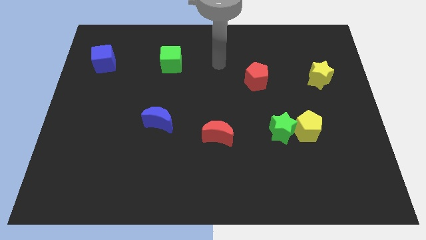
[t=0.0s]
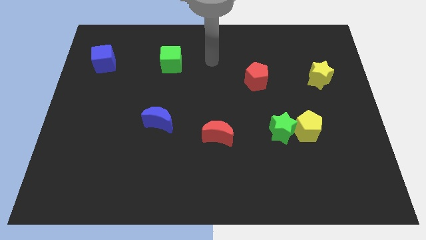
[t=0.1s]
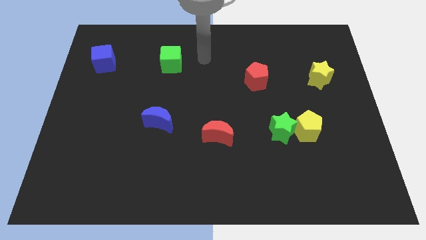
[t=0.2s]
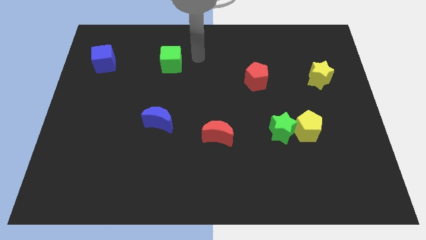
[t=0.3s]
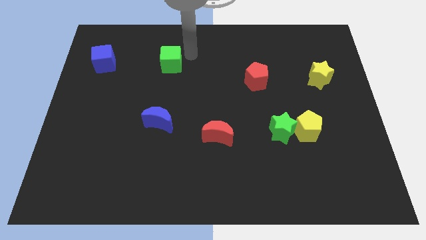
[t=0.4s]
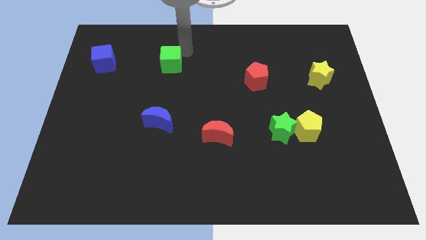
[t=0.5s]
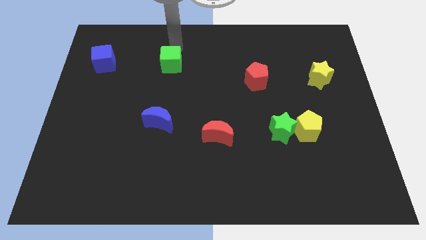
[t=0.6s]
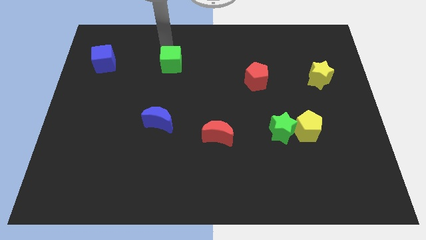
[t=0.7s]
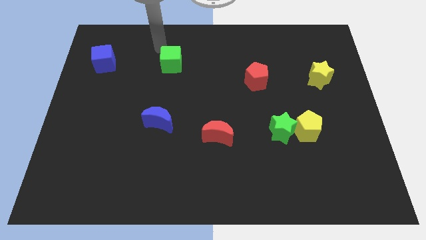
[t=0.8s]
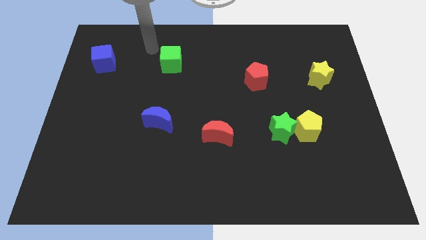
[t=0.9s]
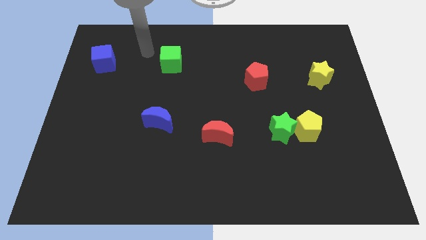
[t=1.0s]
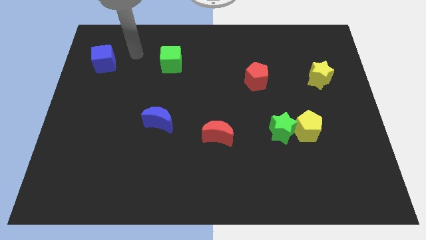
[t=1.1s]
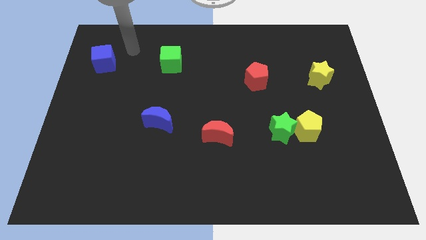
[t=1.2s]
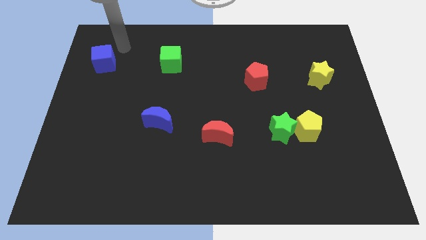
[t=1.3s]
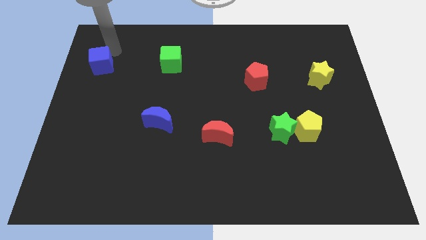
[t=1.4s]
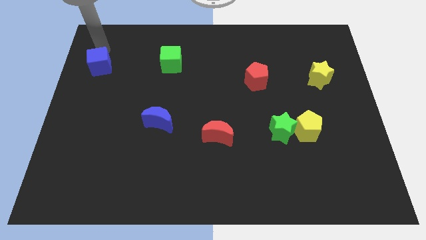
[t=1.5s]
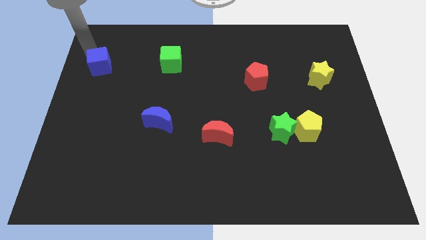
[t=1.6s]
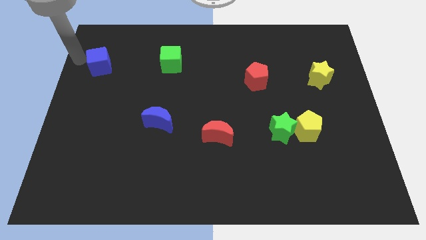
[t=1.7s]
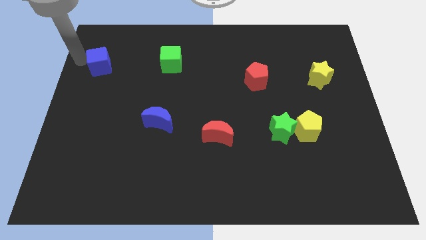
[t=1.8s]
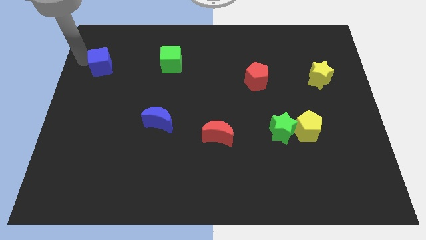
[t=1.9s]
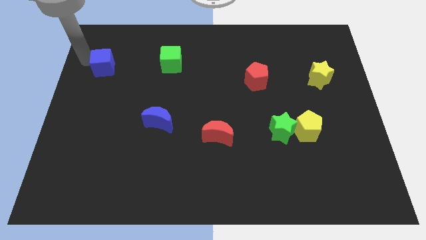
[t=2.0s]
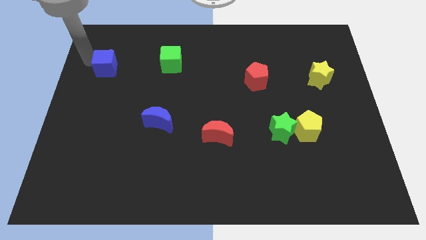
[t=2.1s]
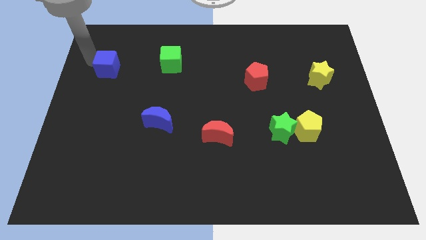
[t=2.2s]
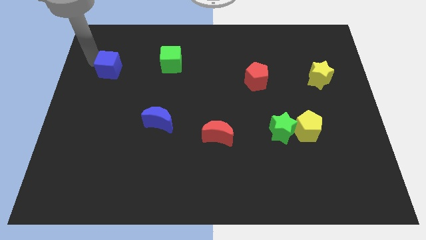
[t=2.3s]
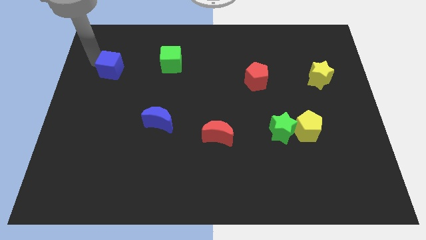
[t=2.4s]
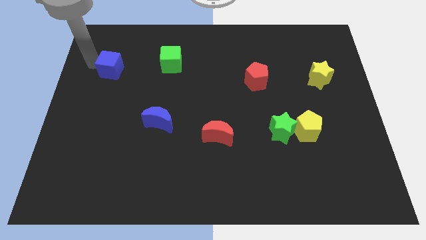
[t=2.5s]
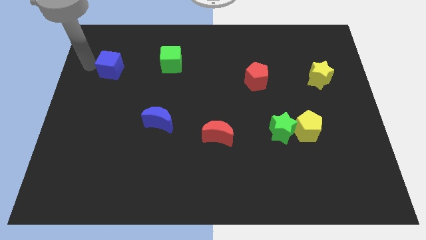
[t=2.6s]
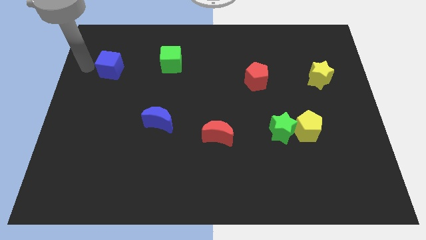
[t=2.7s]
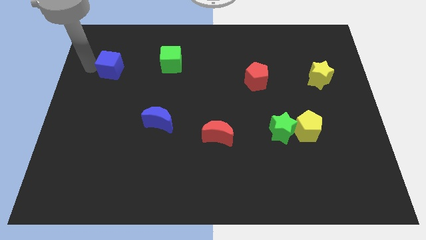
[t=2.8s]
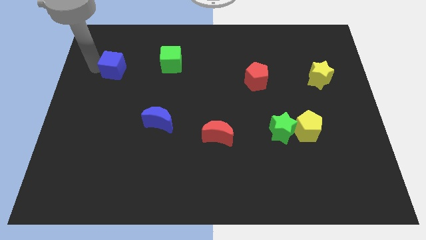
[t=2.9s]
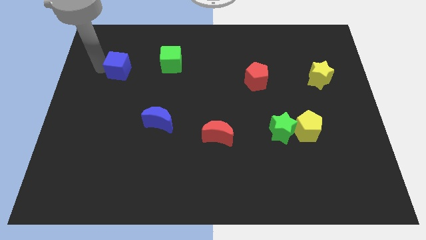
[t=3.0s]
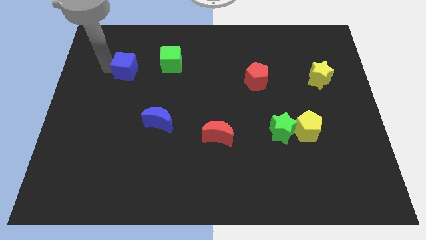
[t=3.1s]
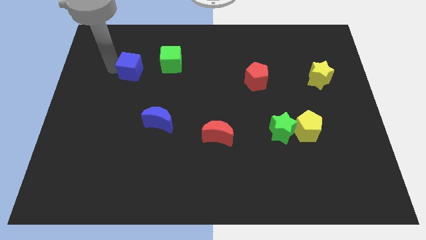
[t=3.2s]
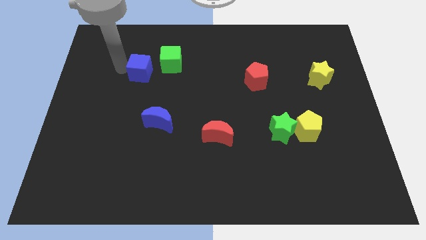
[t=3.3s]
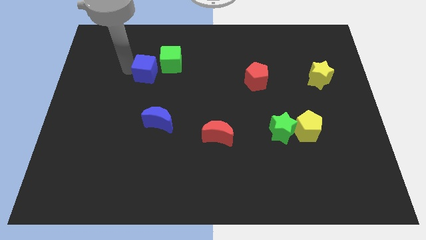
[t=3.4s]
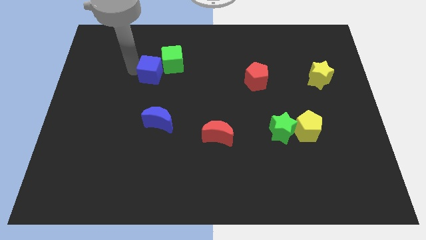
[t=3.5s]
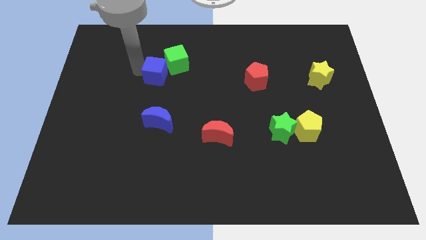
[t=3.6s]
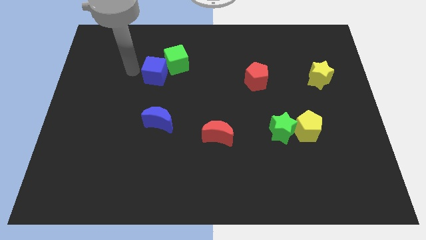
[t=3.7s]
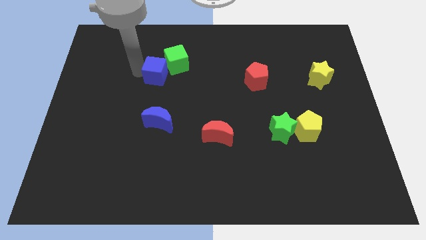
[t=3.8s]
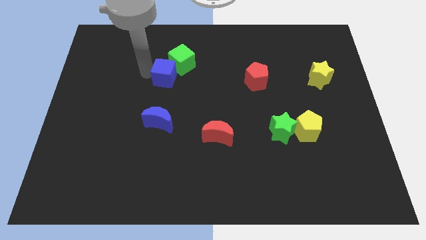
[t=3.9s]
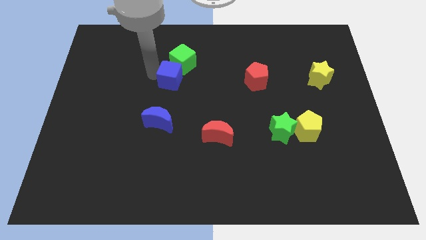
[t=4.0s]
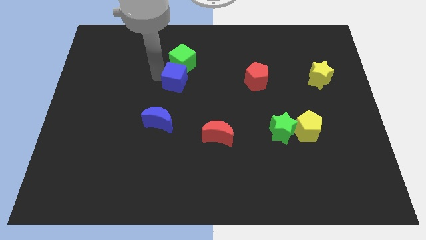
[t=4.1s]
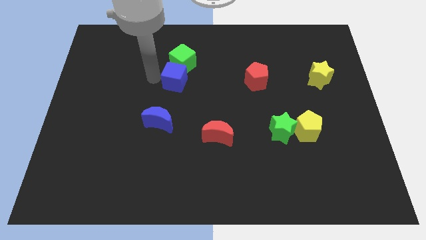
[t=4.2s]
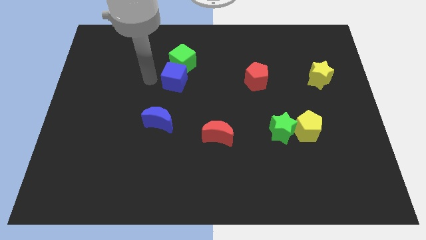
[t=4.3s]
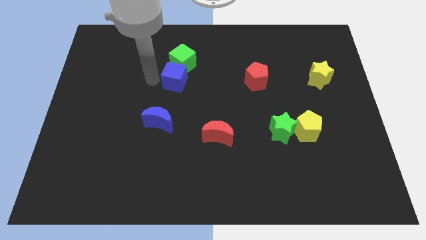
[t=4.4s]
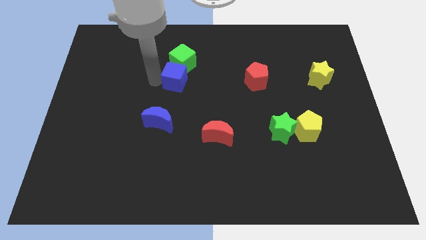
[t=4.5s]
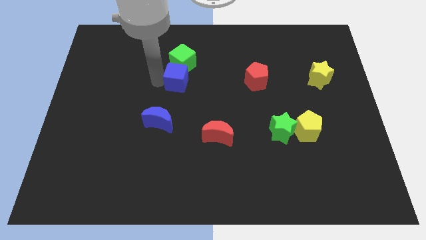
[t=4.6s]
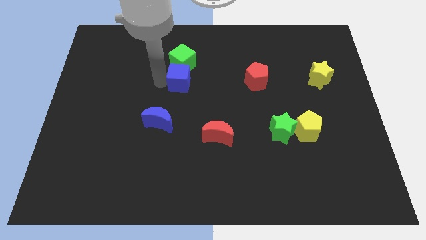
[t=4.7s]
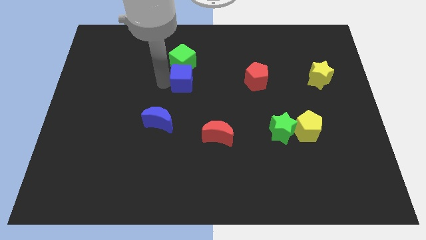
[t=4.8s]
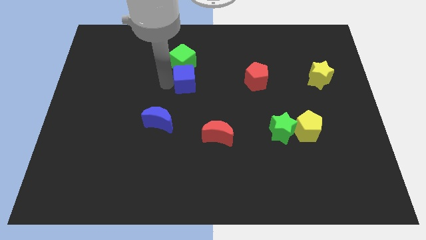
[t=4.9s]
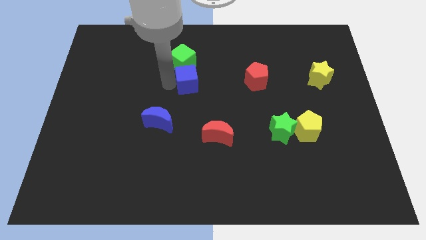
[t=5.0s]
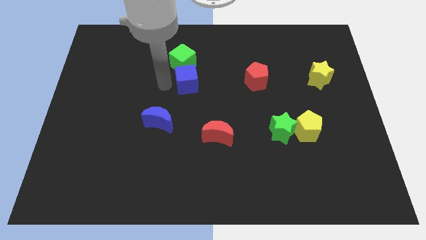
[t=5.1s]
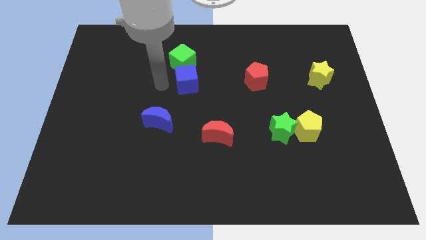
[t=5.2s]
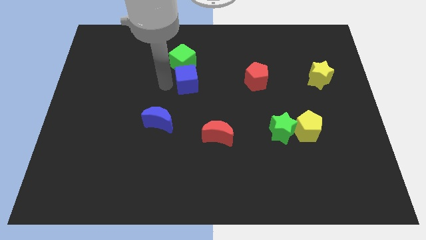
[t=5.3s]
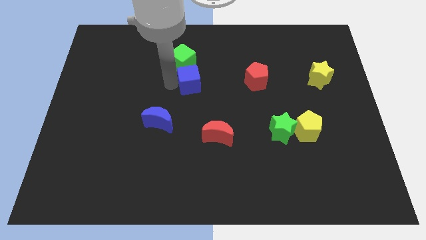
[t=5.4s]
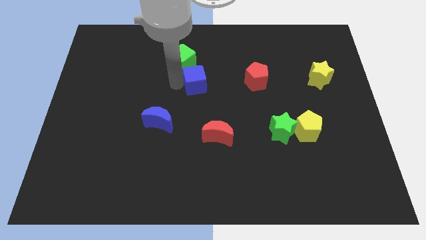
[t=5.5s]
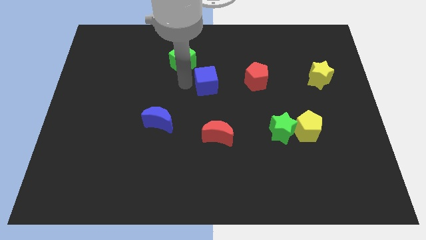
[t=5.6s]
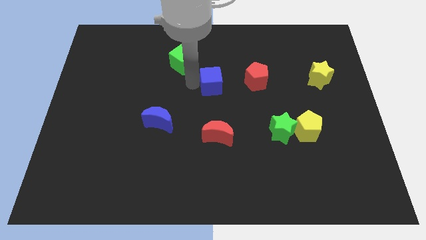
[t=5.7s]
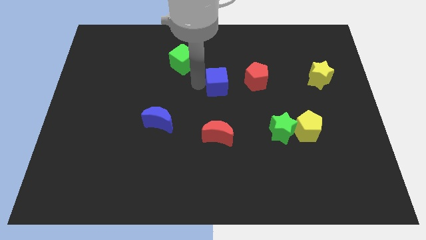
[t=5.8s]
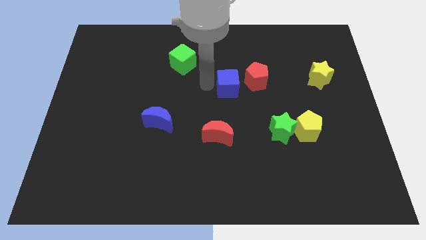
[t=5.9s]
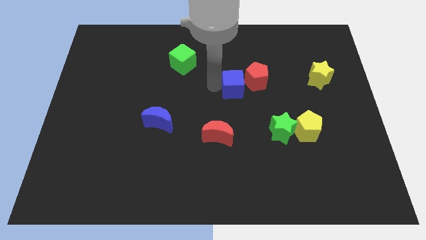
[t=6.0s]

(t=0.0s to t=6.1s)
move the blue cube next to the red pentagon

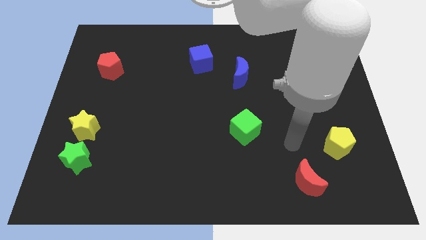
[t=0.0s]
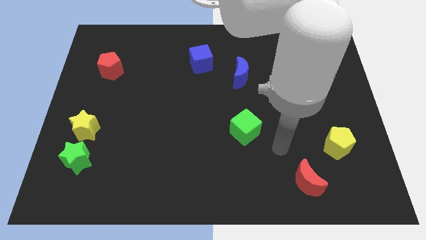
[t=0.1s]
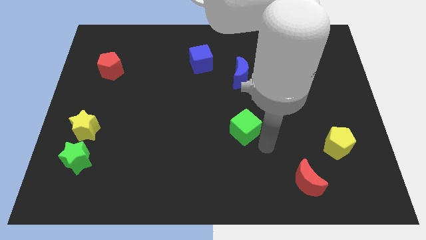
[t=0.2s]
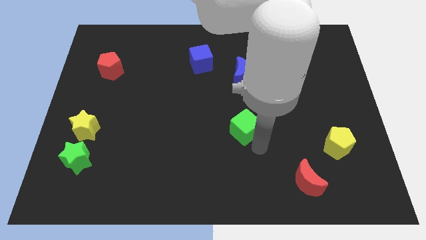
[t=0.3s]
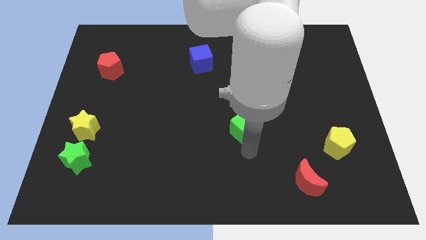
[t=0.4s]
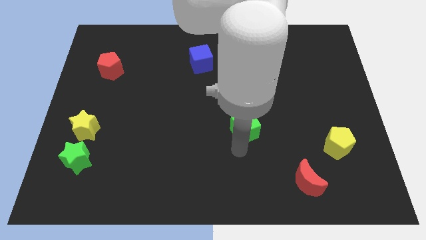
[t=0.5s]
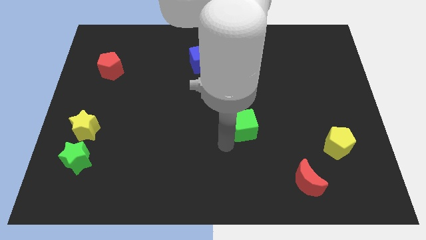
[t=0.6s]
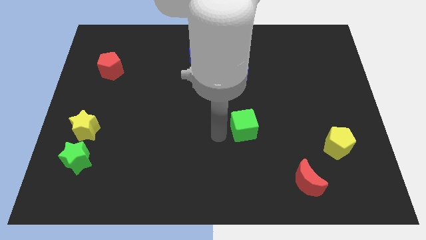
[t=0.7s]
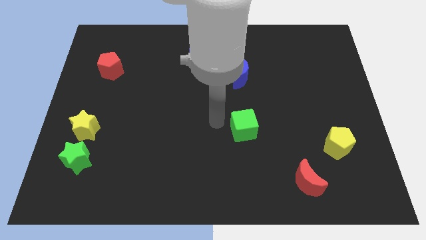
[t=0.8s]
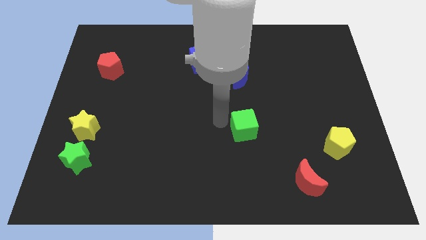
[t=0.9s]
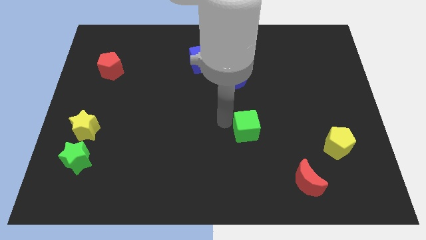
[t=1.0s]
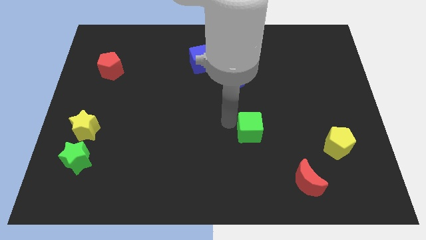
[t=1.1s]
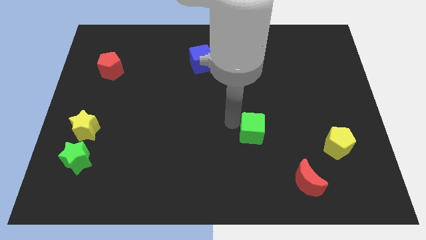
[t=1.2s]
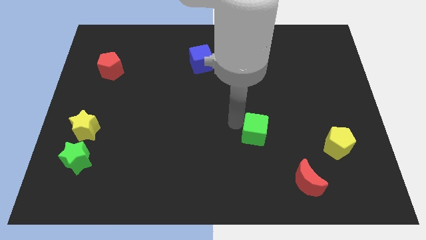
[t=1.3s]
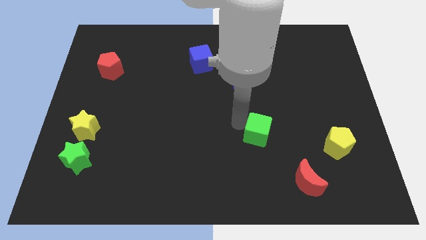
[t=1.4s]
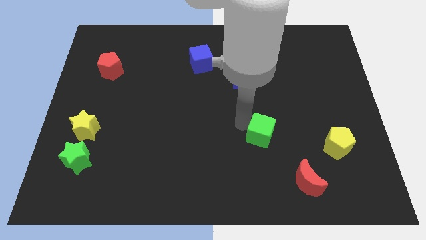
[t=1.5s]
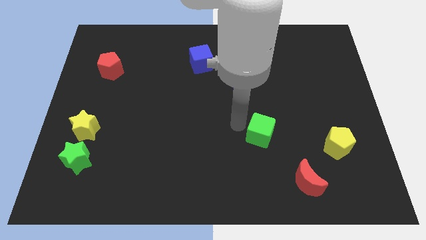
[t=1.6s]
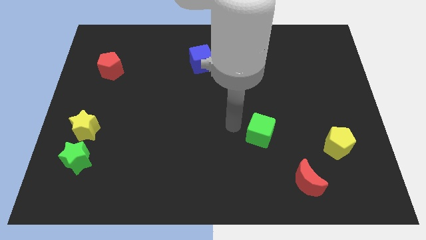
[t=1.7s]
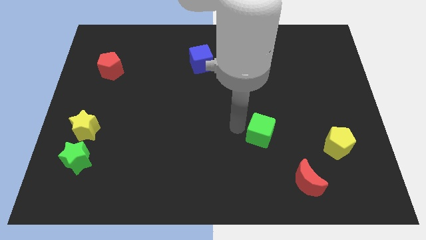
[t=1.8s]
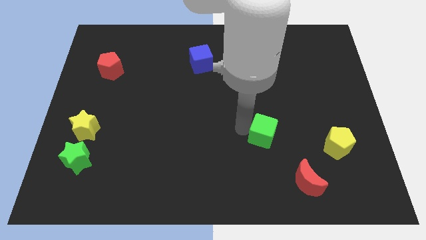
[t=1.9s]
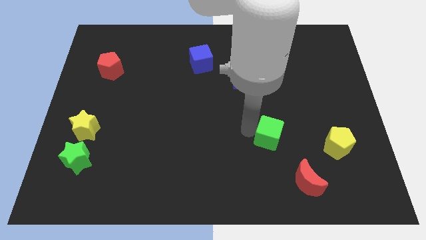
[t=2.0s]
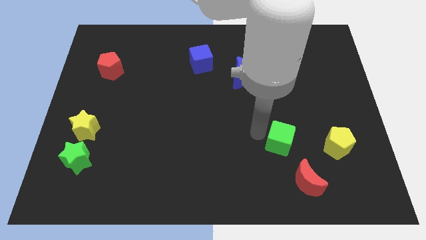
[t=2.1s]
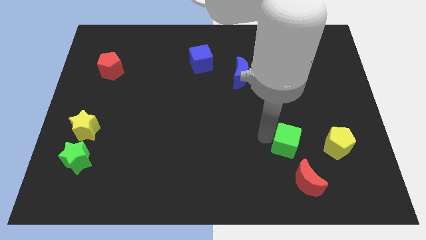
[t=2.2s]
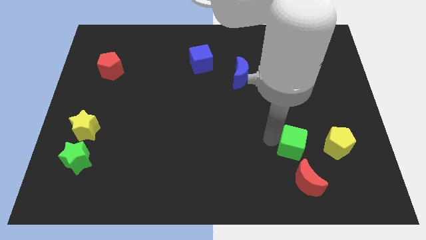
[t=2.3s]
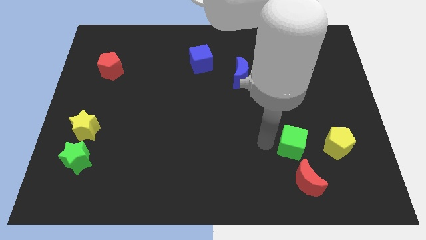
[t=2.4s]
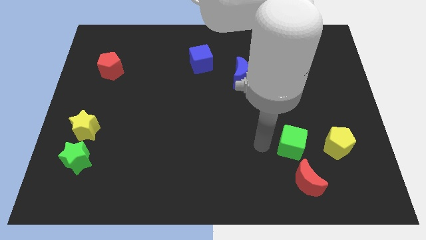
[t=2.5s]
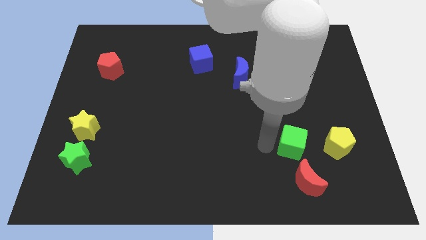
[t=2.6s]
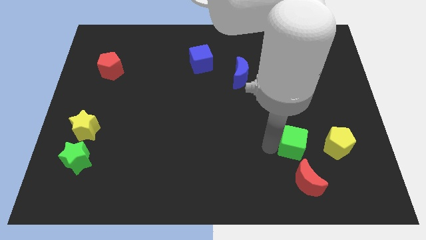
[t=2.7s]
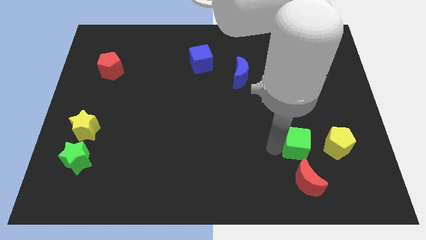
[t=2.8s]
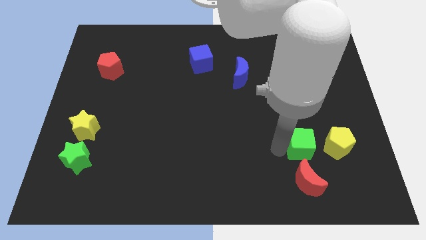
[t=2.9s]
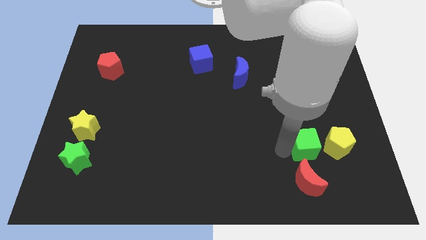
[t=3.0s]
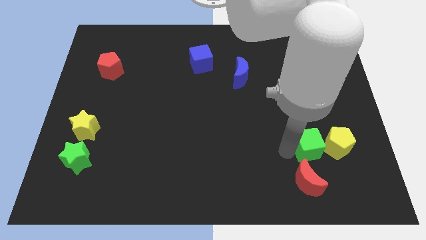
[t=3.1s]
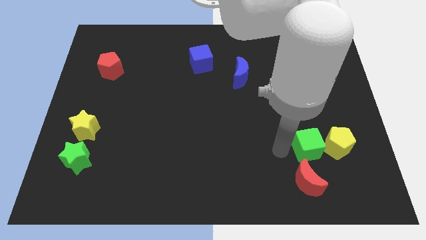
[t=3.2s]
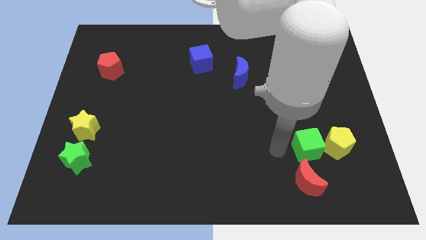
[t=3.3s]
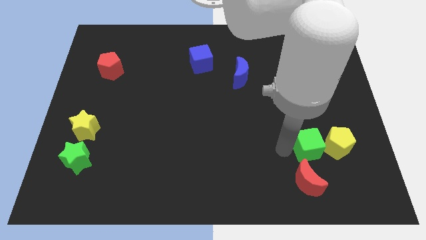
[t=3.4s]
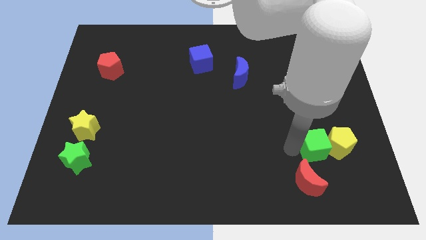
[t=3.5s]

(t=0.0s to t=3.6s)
put the green cube next to the yellow pentagon
